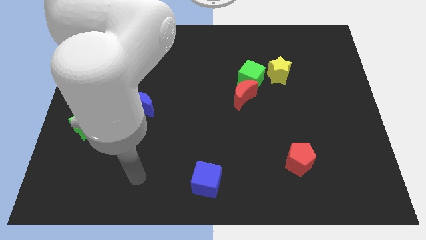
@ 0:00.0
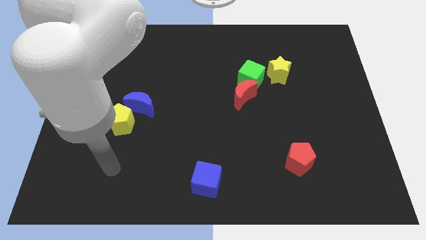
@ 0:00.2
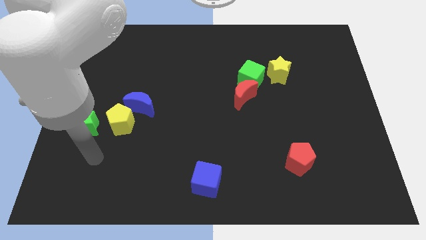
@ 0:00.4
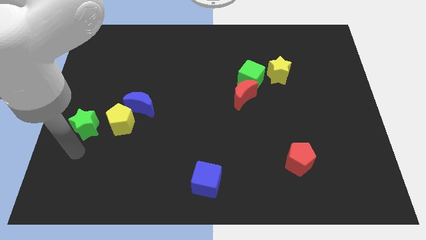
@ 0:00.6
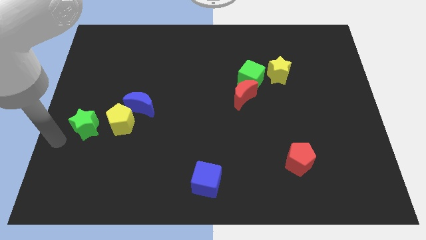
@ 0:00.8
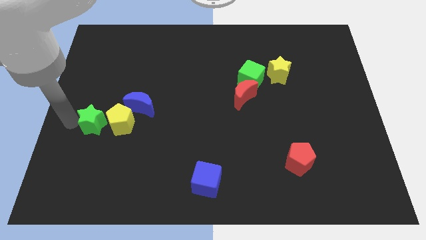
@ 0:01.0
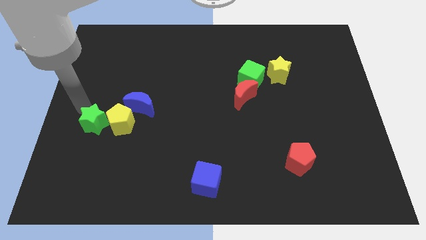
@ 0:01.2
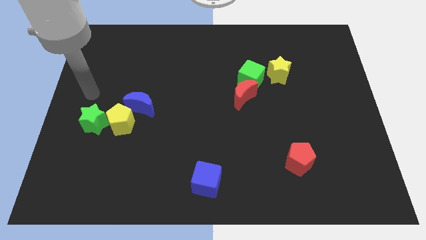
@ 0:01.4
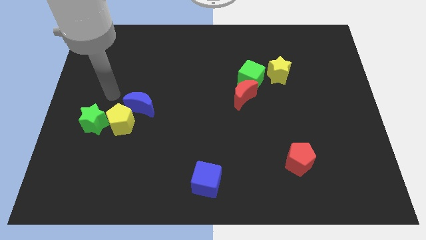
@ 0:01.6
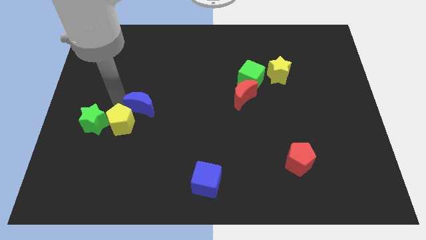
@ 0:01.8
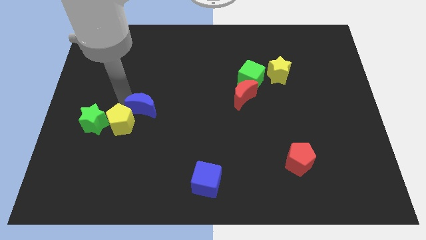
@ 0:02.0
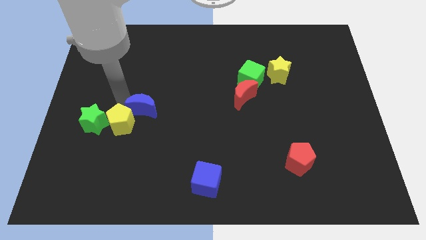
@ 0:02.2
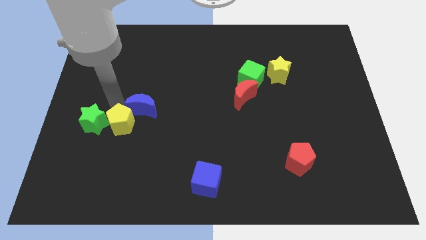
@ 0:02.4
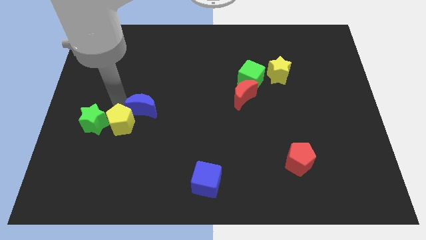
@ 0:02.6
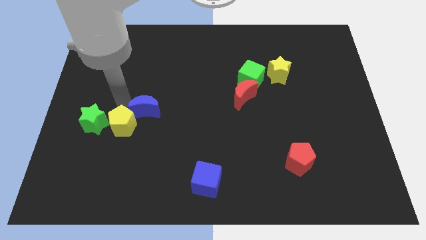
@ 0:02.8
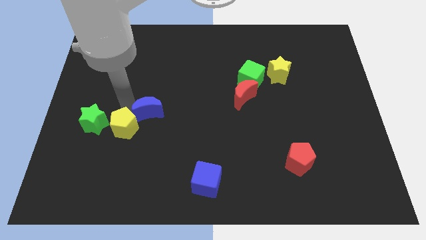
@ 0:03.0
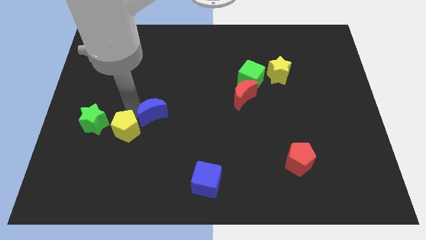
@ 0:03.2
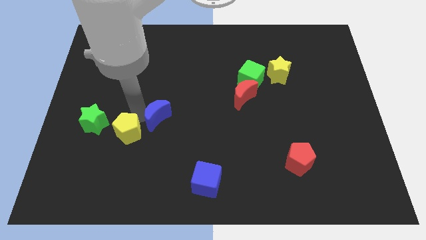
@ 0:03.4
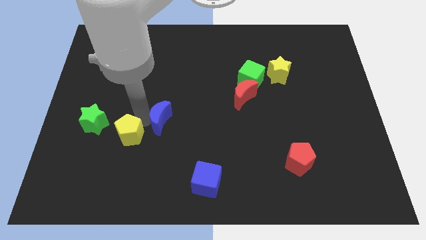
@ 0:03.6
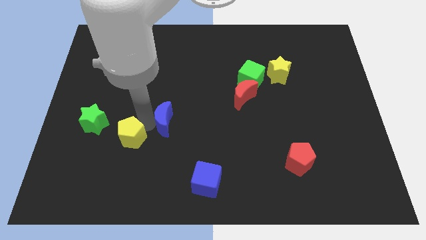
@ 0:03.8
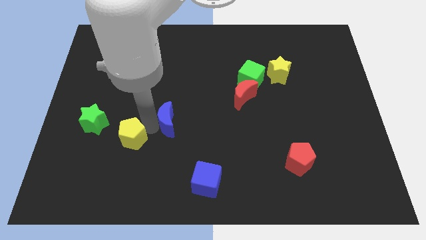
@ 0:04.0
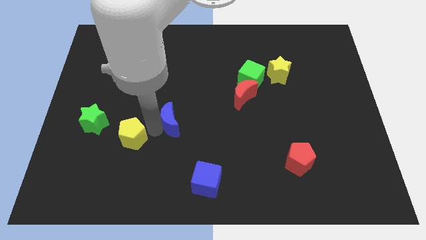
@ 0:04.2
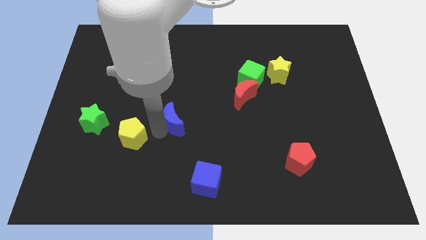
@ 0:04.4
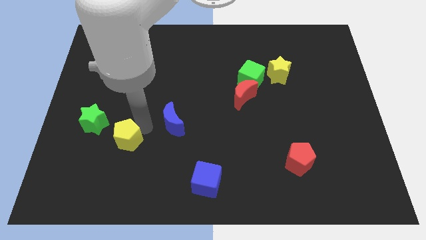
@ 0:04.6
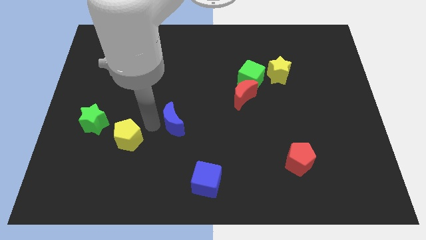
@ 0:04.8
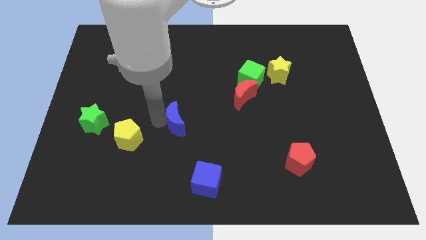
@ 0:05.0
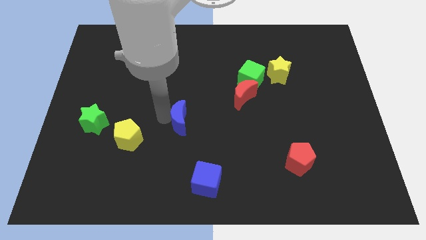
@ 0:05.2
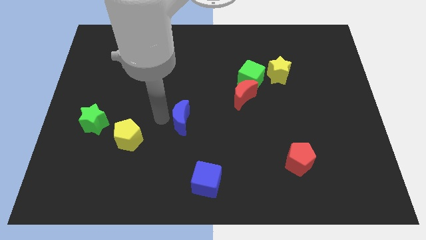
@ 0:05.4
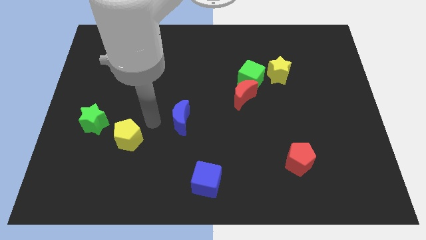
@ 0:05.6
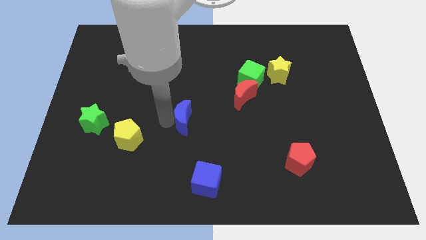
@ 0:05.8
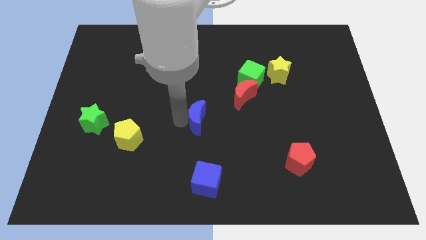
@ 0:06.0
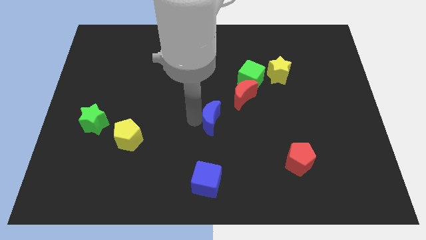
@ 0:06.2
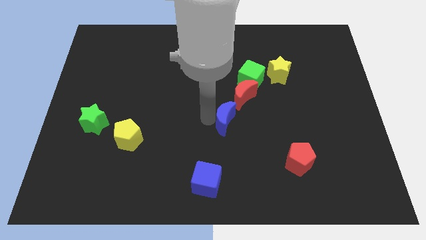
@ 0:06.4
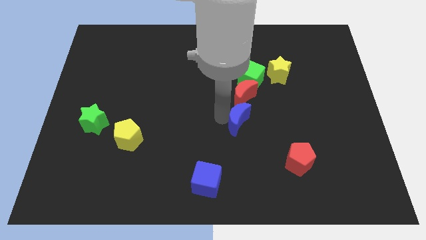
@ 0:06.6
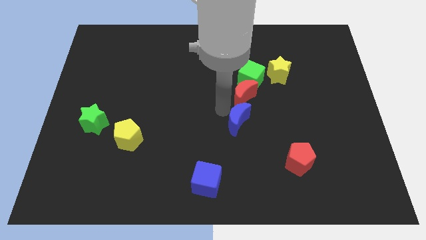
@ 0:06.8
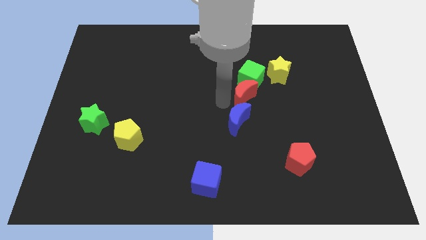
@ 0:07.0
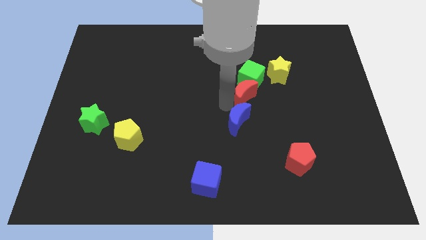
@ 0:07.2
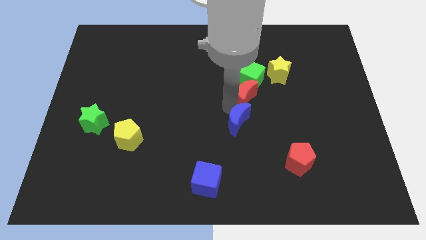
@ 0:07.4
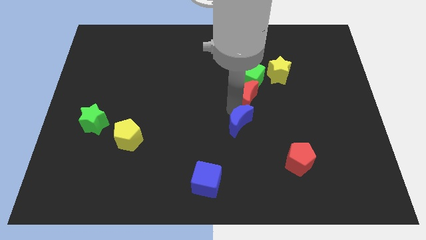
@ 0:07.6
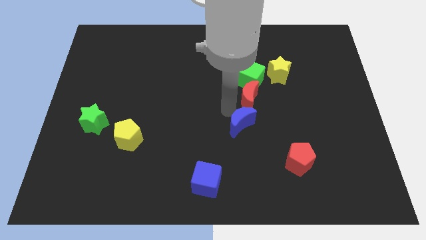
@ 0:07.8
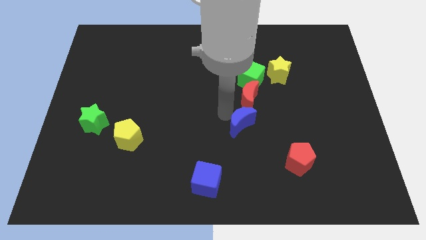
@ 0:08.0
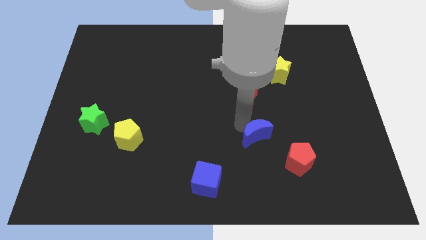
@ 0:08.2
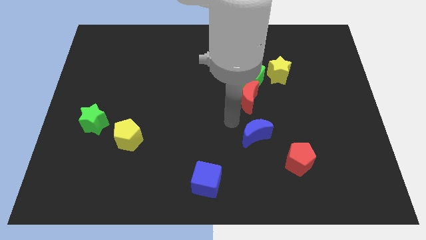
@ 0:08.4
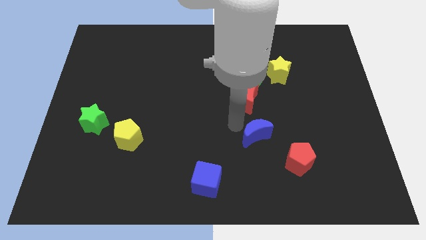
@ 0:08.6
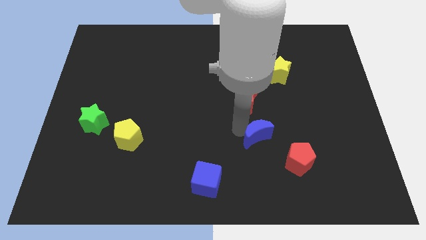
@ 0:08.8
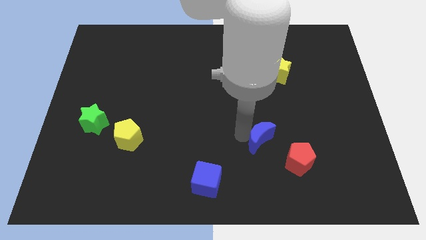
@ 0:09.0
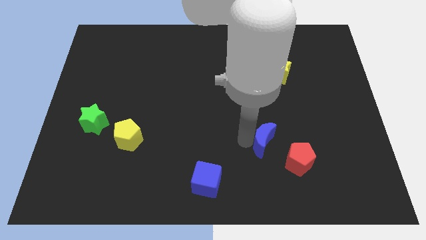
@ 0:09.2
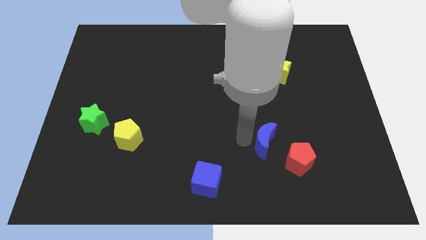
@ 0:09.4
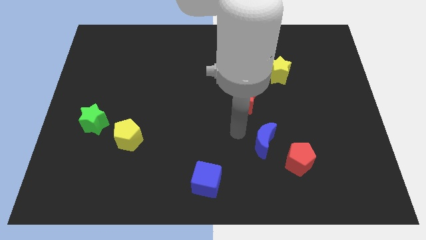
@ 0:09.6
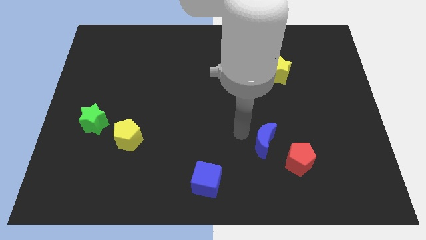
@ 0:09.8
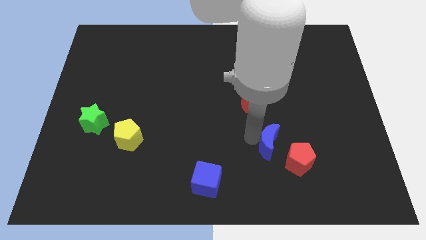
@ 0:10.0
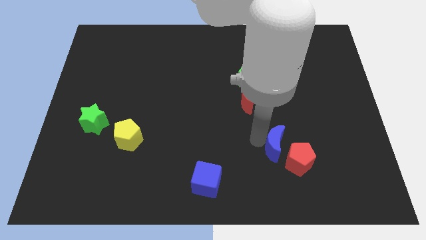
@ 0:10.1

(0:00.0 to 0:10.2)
put the blue moon towards the red pentagon

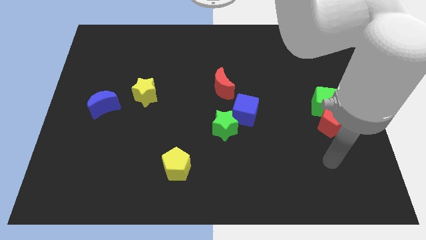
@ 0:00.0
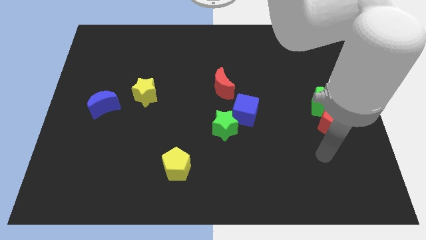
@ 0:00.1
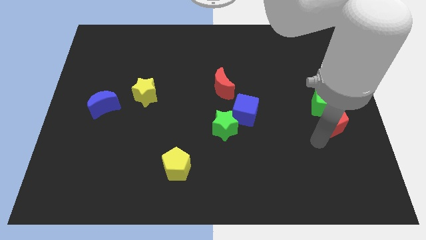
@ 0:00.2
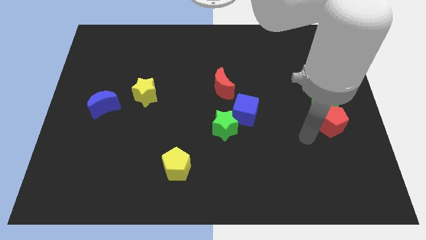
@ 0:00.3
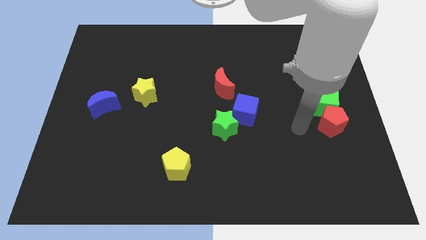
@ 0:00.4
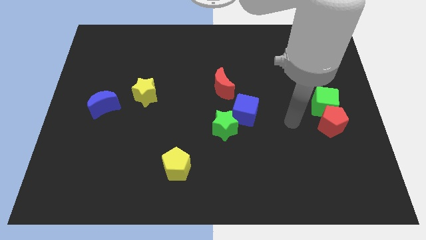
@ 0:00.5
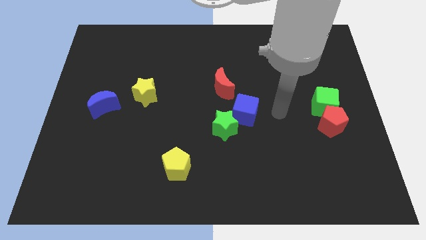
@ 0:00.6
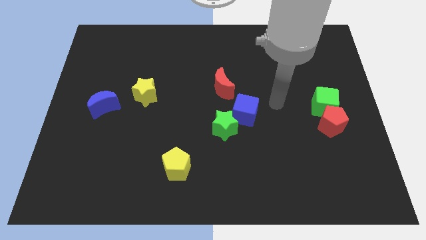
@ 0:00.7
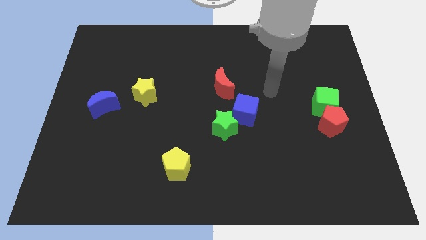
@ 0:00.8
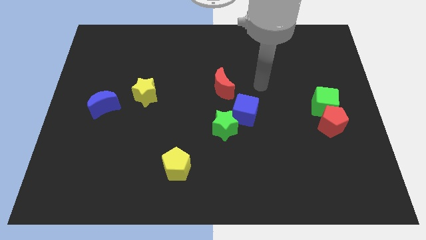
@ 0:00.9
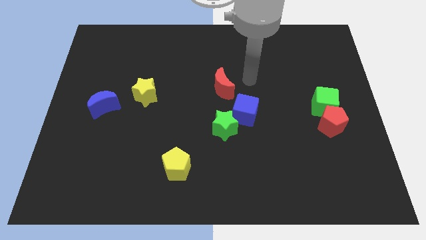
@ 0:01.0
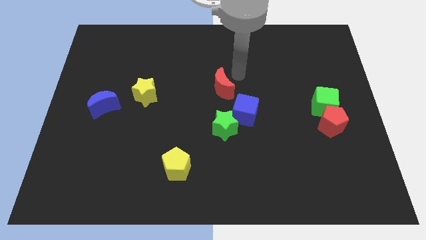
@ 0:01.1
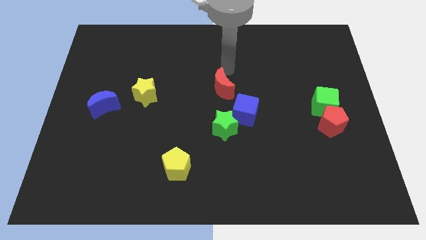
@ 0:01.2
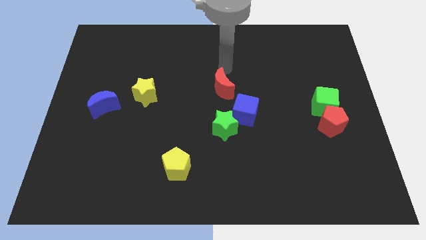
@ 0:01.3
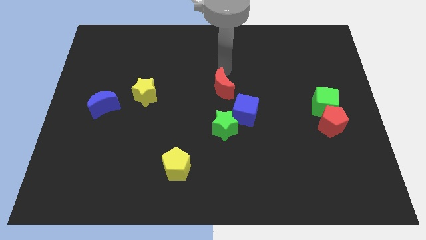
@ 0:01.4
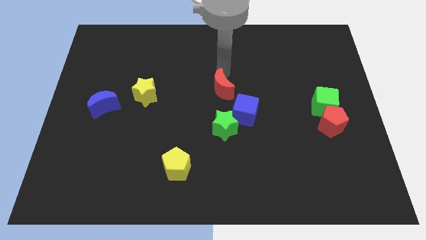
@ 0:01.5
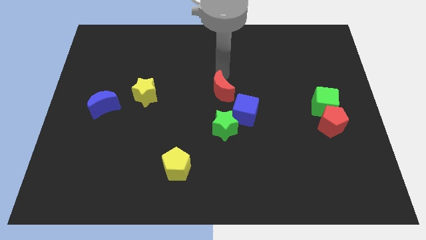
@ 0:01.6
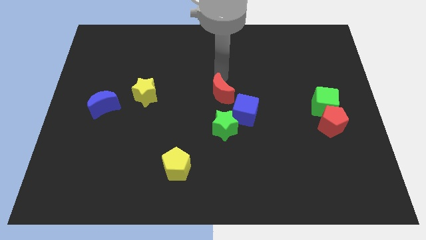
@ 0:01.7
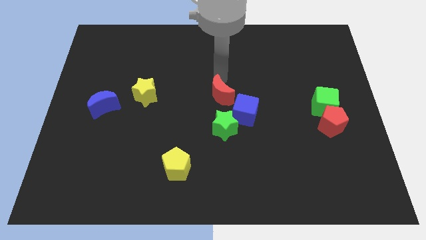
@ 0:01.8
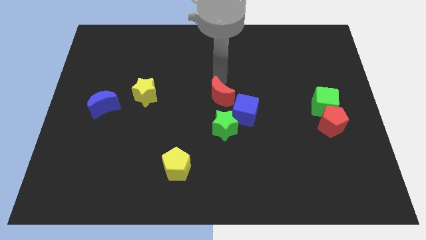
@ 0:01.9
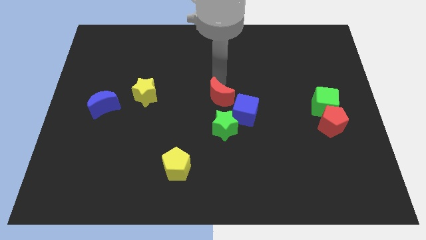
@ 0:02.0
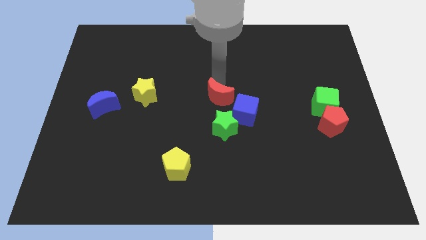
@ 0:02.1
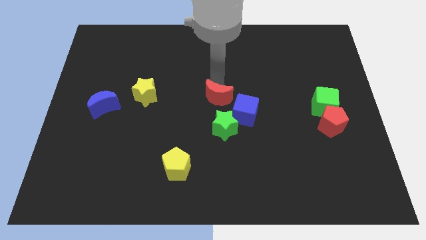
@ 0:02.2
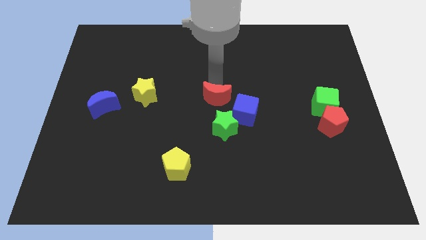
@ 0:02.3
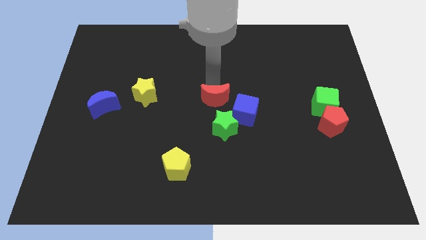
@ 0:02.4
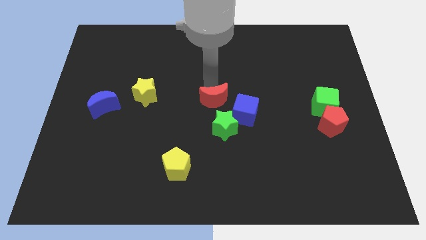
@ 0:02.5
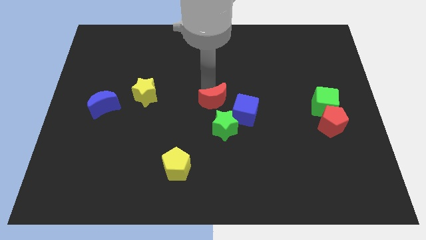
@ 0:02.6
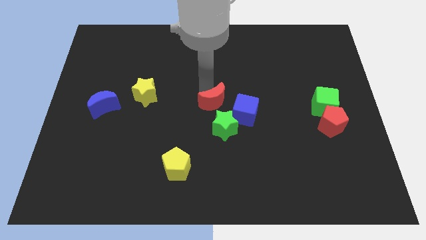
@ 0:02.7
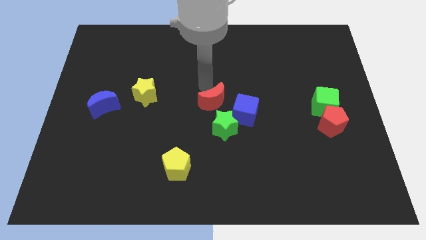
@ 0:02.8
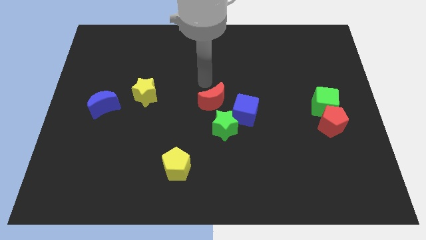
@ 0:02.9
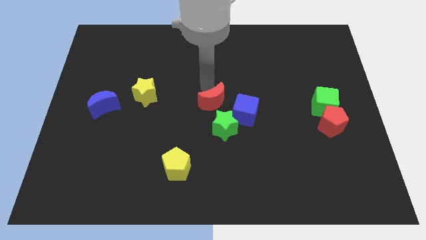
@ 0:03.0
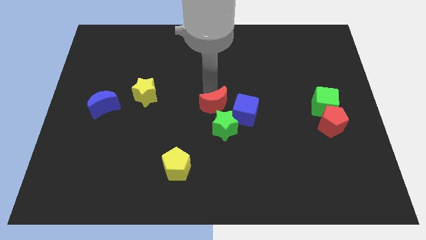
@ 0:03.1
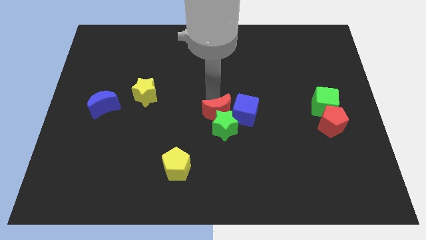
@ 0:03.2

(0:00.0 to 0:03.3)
push the red moon close to the green star
